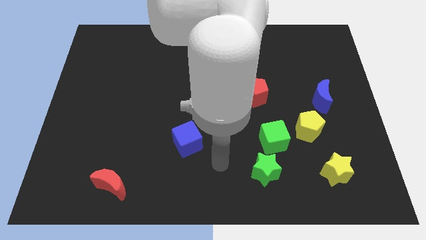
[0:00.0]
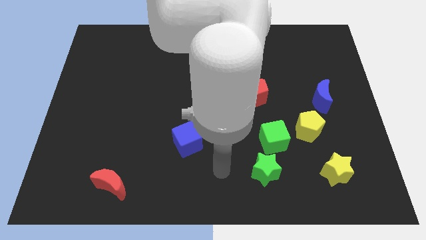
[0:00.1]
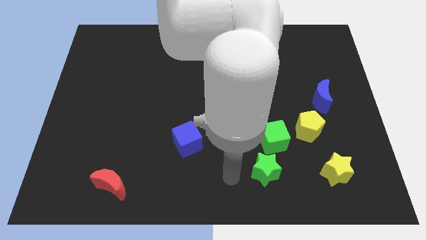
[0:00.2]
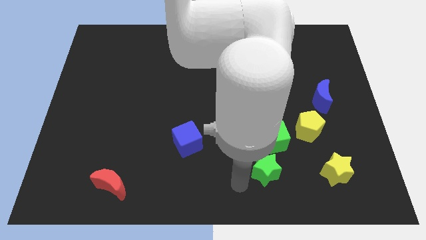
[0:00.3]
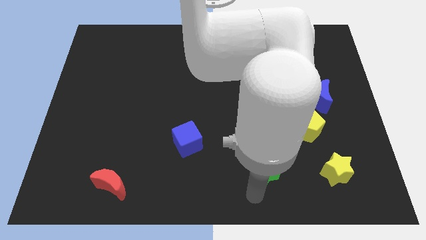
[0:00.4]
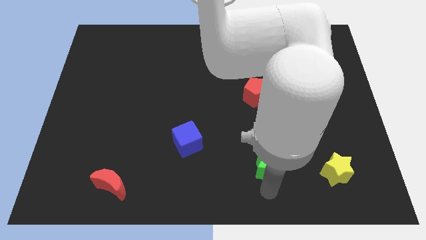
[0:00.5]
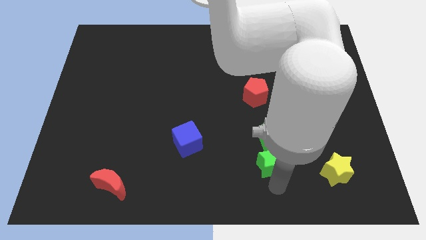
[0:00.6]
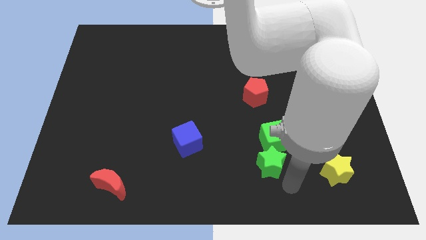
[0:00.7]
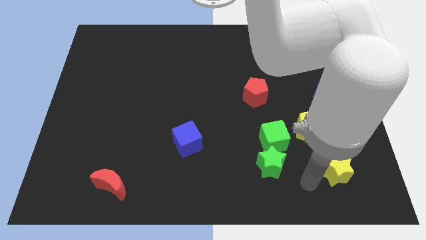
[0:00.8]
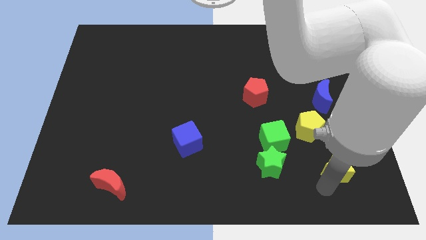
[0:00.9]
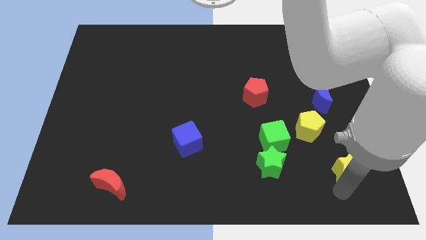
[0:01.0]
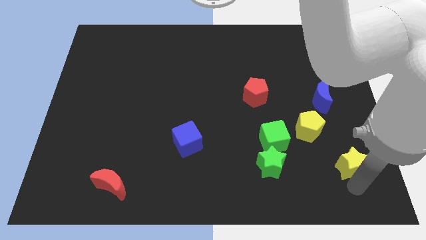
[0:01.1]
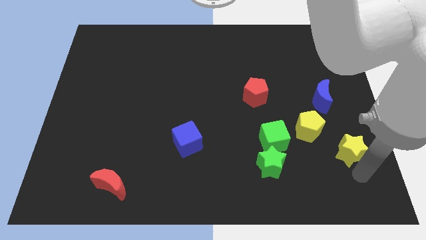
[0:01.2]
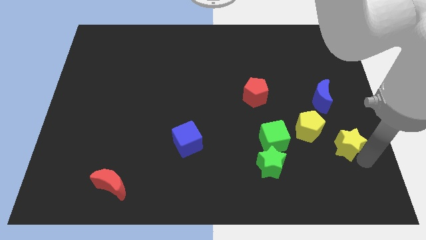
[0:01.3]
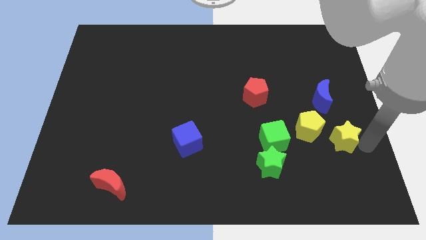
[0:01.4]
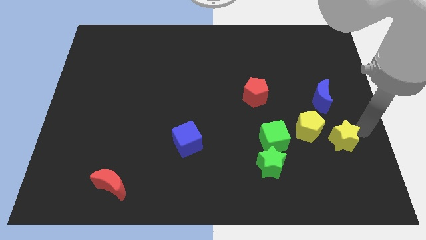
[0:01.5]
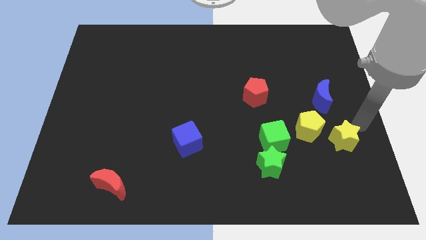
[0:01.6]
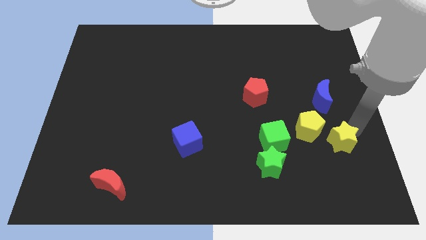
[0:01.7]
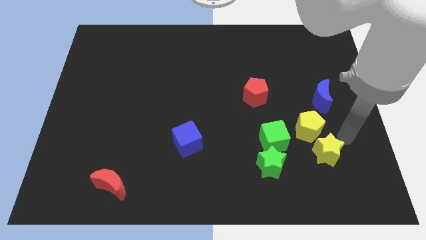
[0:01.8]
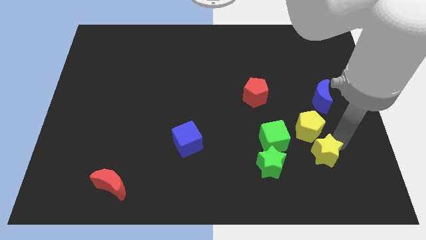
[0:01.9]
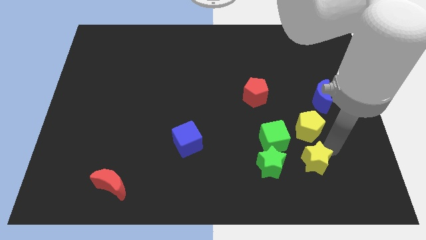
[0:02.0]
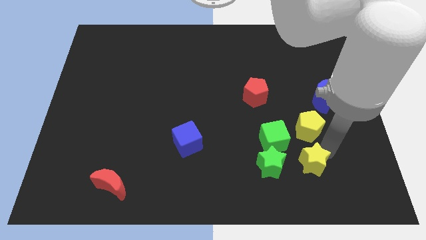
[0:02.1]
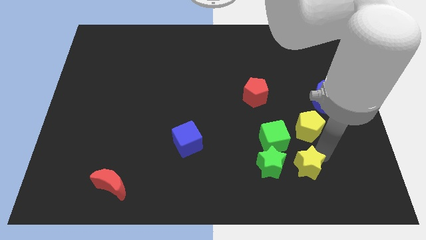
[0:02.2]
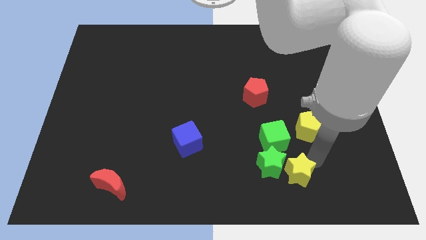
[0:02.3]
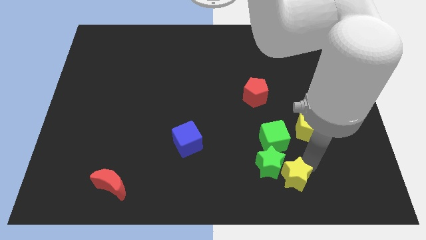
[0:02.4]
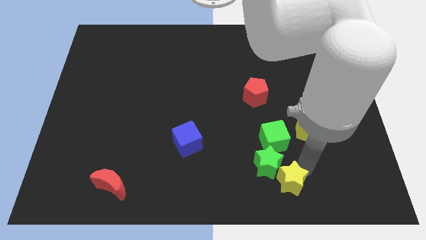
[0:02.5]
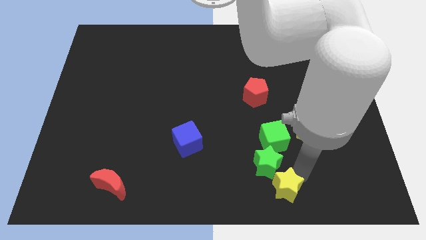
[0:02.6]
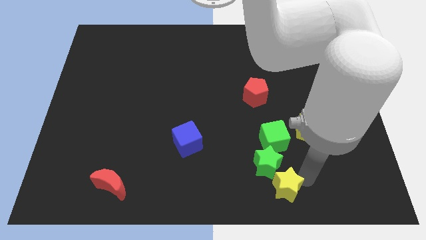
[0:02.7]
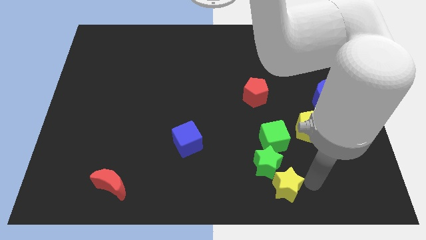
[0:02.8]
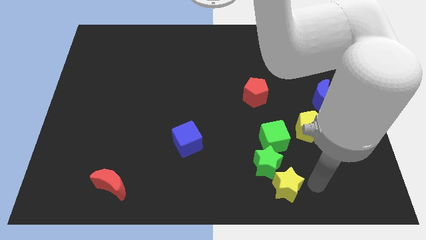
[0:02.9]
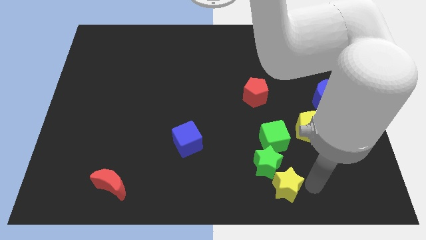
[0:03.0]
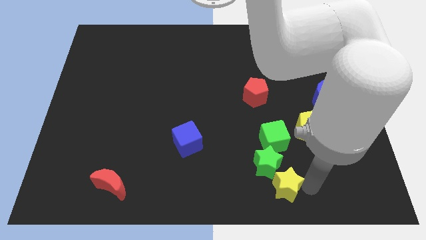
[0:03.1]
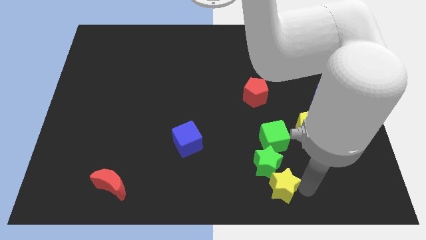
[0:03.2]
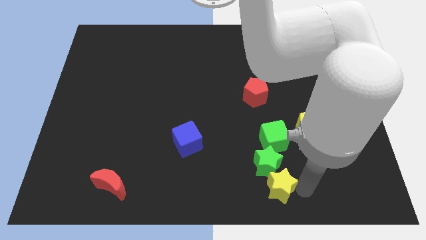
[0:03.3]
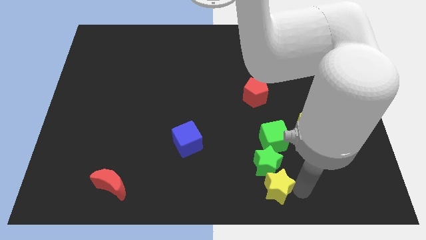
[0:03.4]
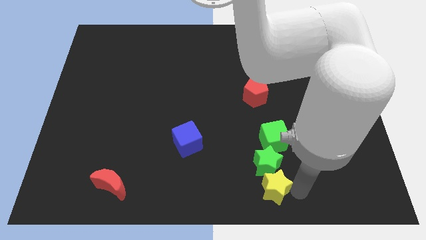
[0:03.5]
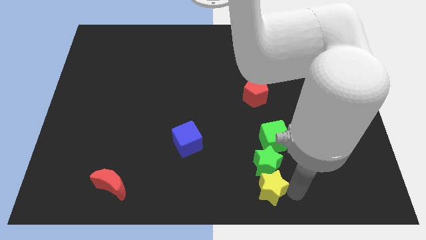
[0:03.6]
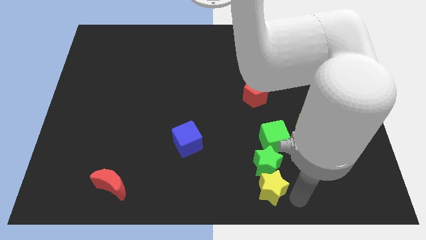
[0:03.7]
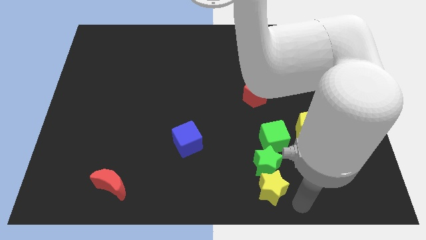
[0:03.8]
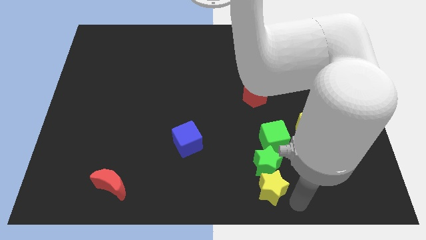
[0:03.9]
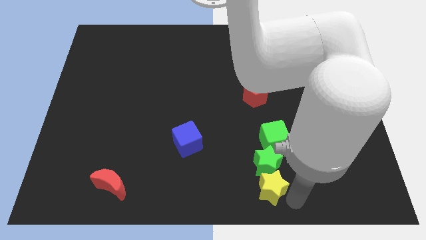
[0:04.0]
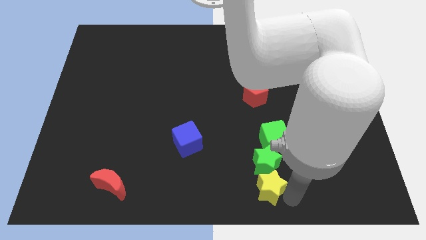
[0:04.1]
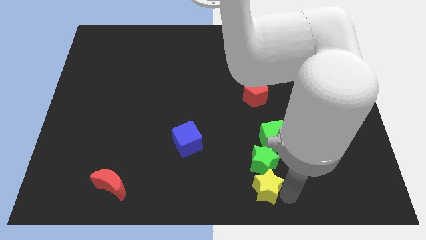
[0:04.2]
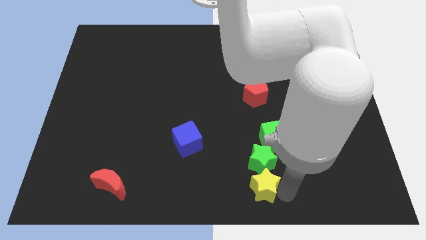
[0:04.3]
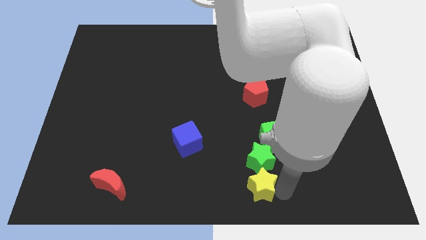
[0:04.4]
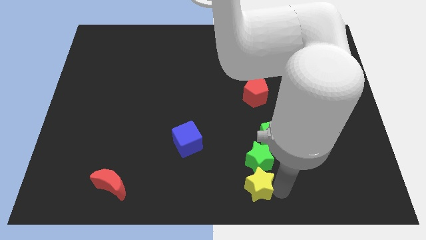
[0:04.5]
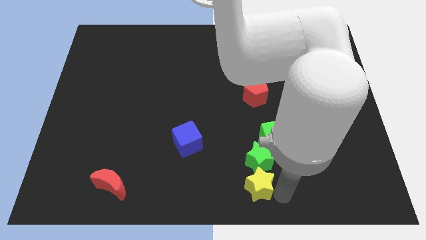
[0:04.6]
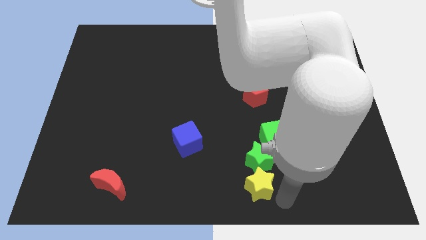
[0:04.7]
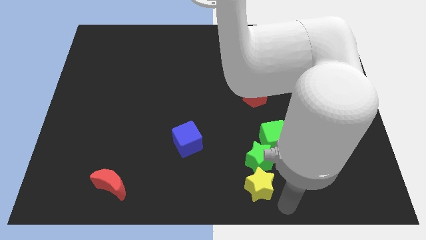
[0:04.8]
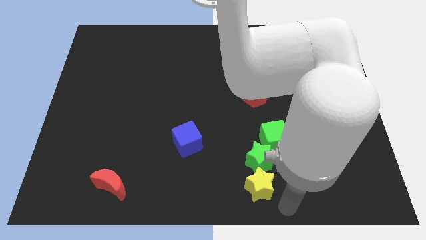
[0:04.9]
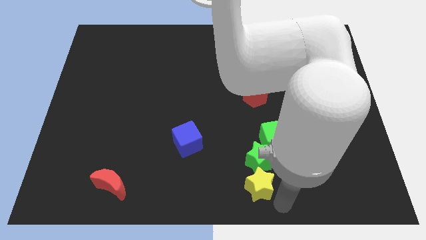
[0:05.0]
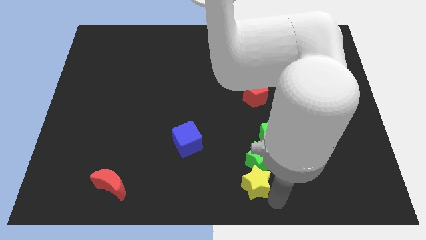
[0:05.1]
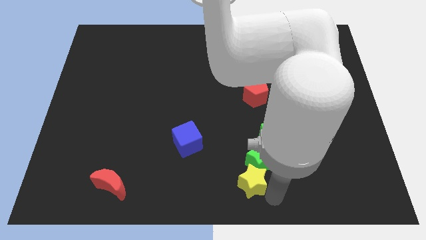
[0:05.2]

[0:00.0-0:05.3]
put the yellow star to the bottom left of the green cube

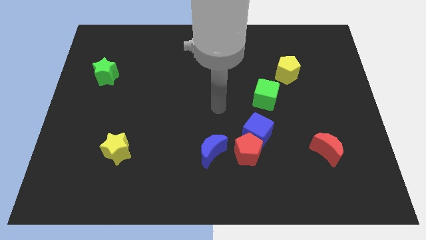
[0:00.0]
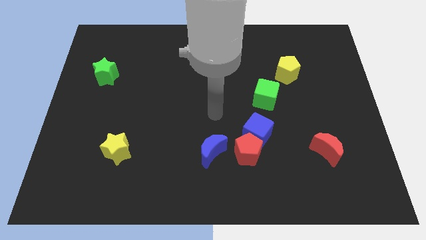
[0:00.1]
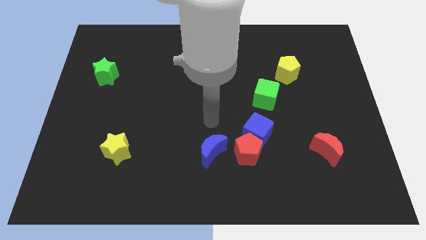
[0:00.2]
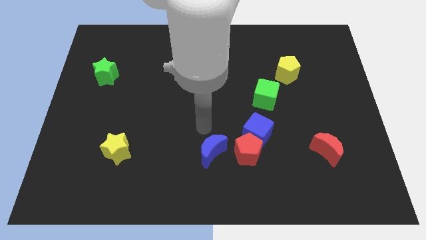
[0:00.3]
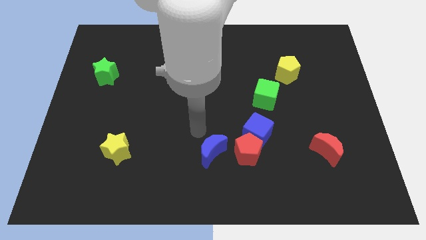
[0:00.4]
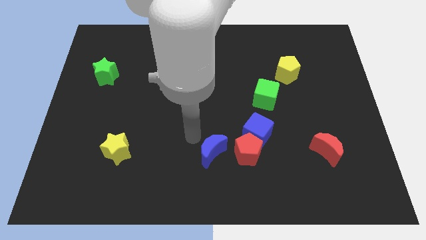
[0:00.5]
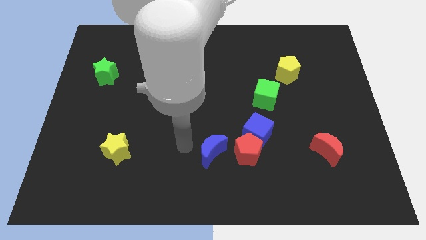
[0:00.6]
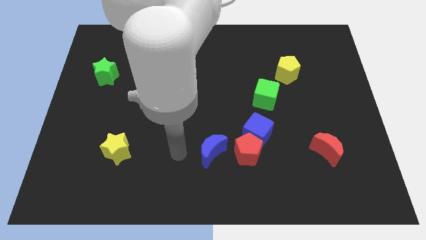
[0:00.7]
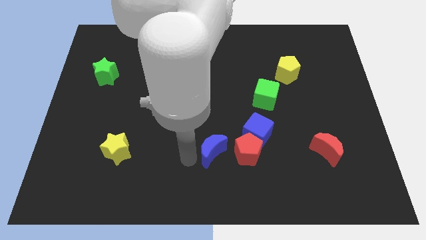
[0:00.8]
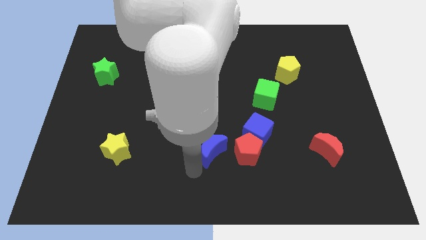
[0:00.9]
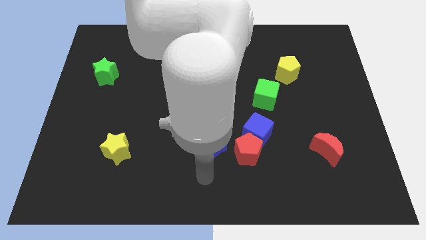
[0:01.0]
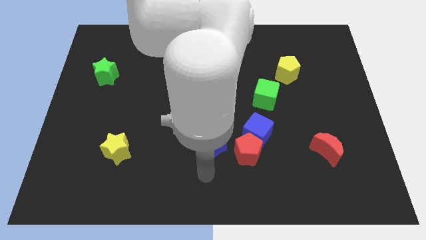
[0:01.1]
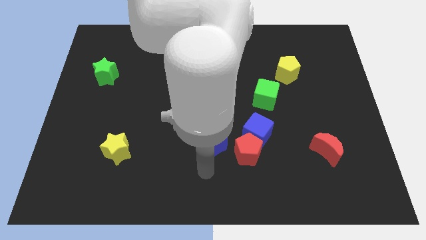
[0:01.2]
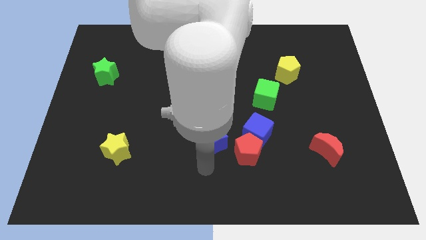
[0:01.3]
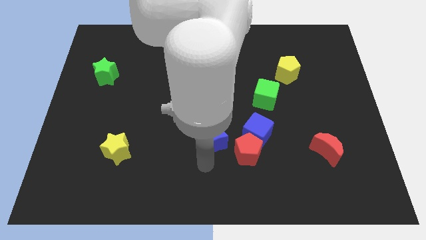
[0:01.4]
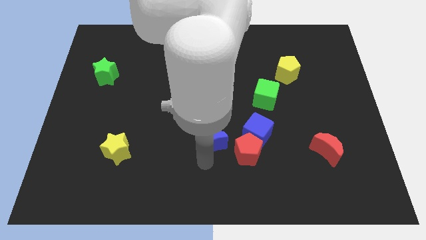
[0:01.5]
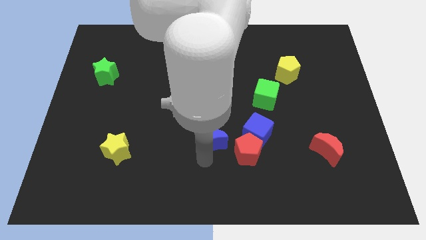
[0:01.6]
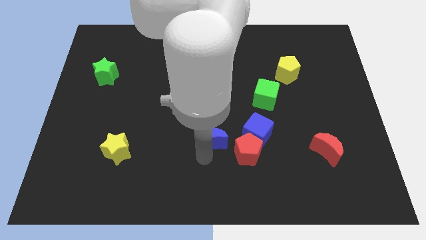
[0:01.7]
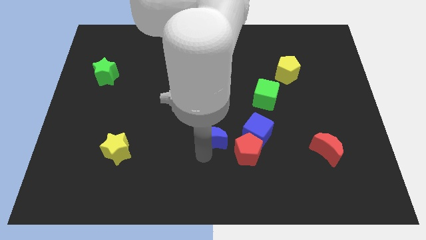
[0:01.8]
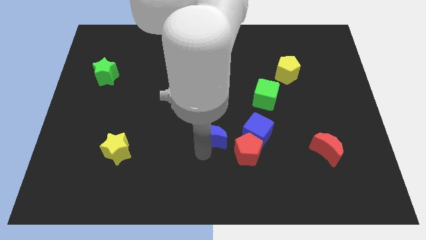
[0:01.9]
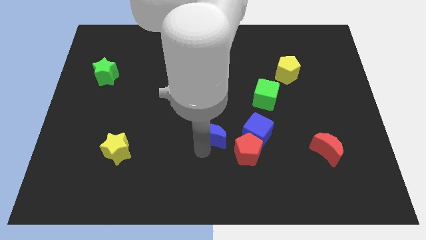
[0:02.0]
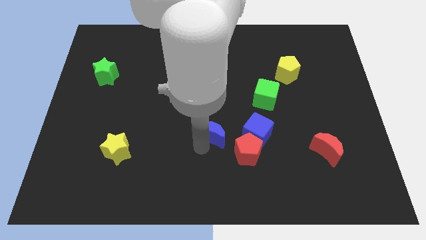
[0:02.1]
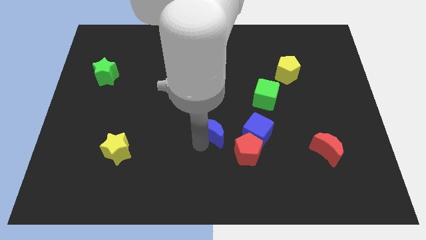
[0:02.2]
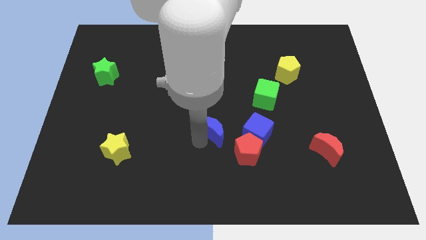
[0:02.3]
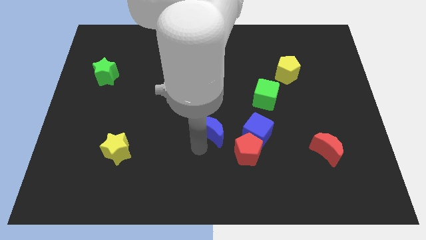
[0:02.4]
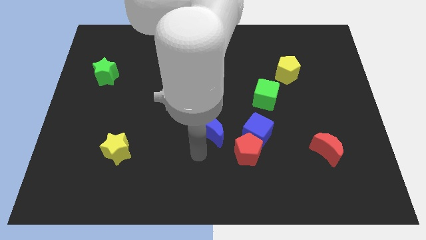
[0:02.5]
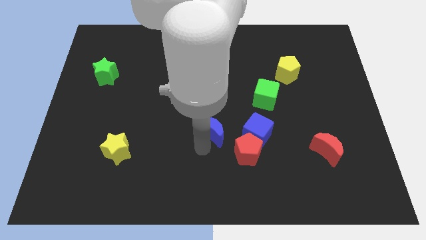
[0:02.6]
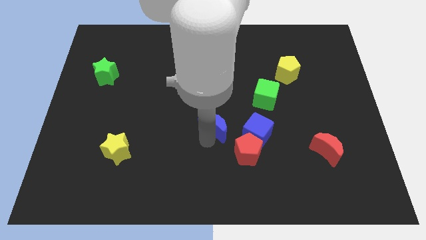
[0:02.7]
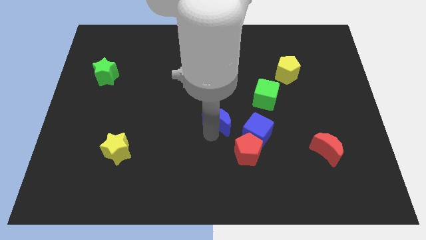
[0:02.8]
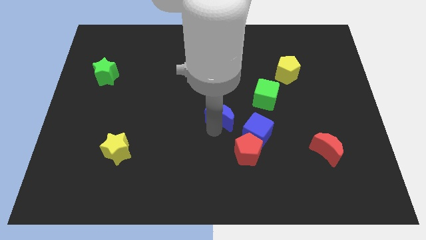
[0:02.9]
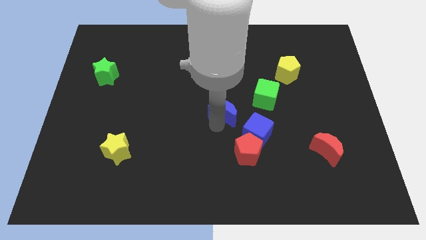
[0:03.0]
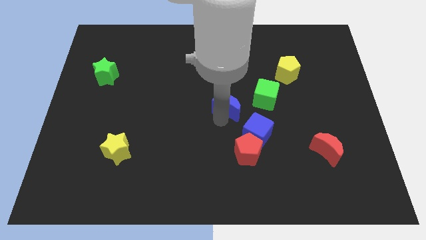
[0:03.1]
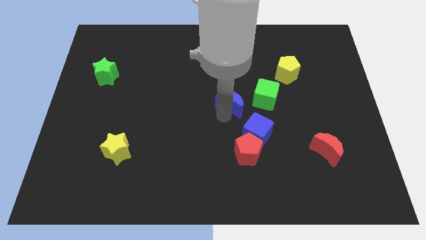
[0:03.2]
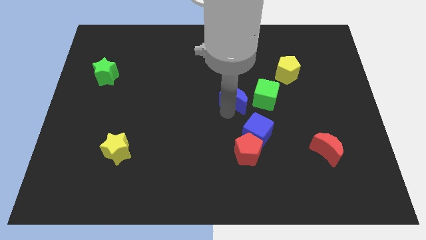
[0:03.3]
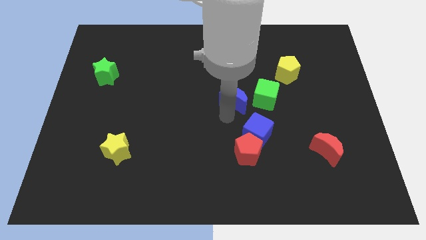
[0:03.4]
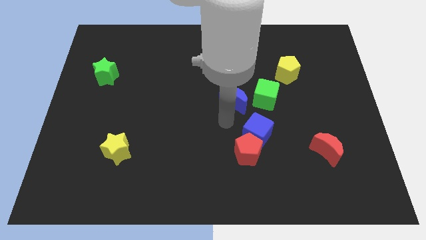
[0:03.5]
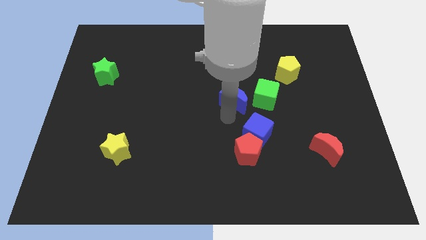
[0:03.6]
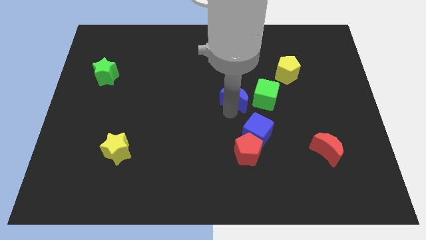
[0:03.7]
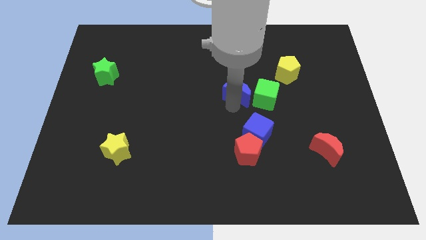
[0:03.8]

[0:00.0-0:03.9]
put the blue moon to the top left side of the green cube
